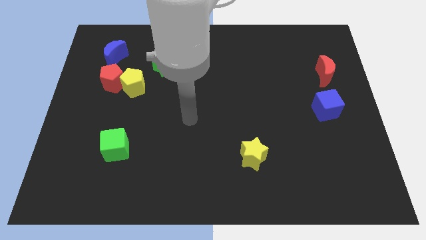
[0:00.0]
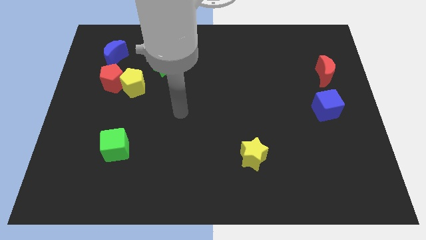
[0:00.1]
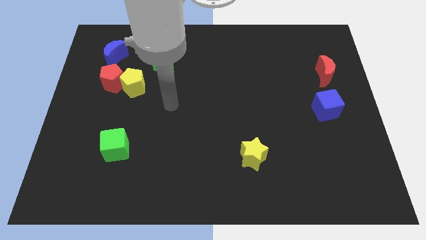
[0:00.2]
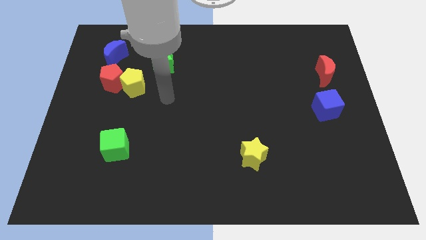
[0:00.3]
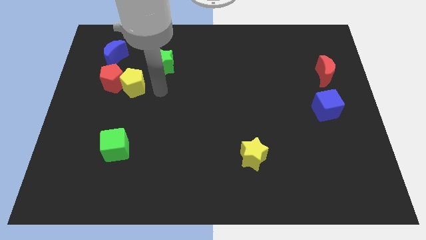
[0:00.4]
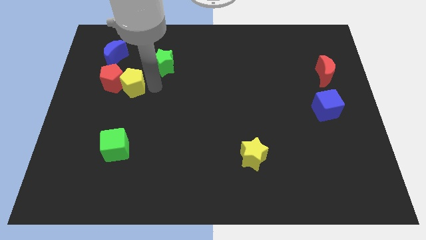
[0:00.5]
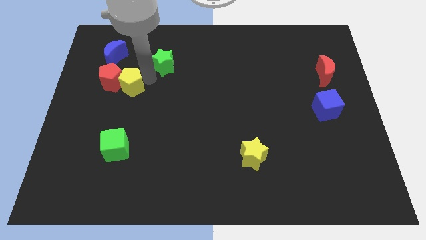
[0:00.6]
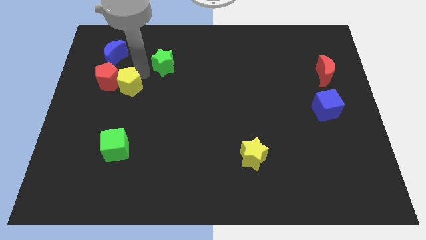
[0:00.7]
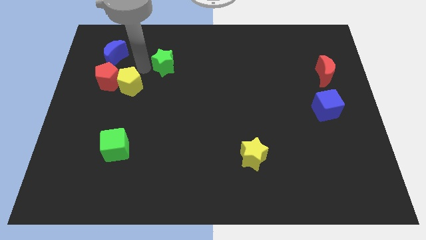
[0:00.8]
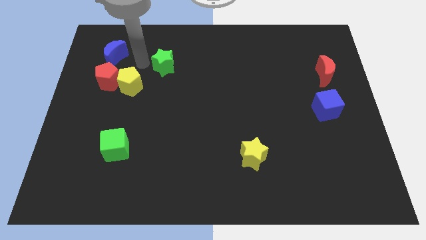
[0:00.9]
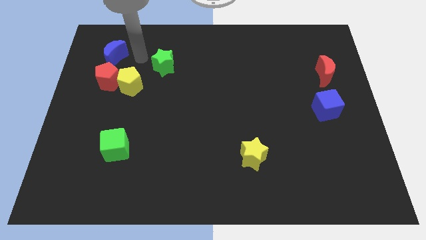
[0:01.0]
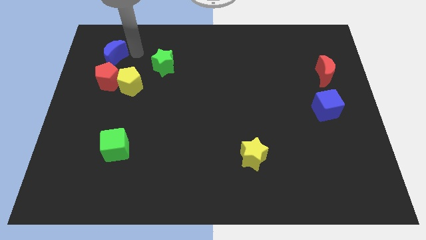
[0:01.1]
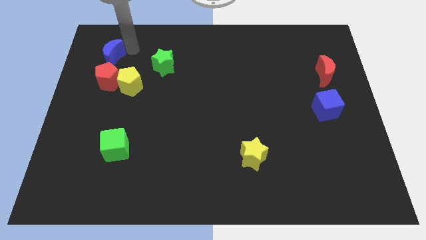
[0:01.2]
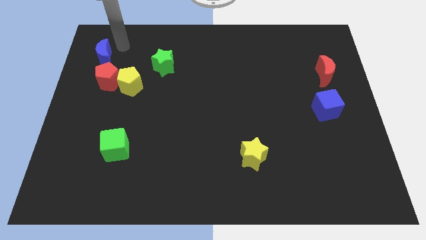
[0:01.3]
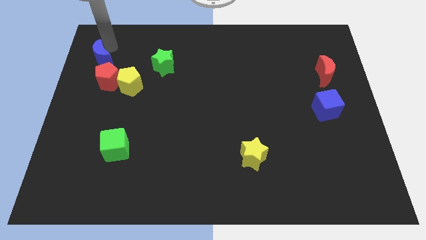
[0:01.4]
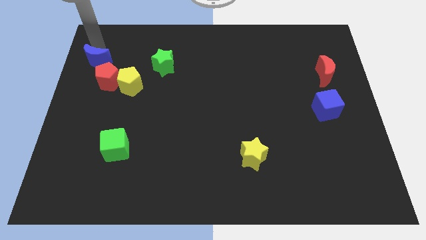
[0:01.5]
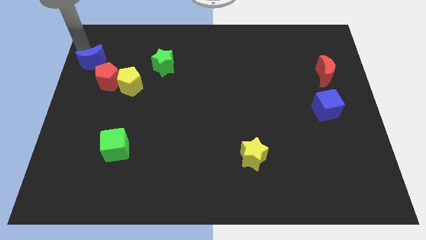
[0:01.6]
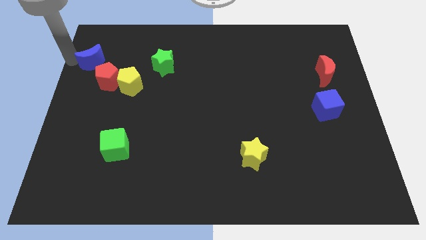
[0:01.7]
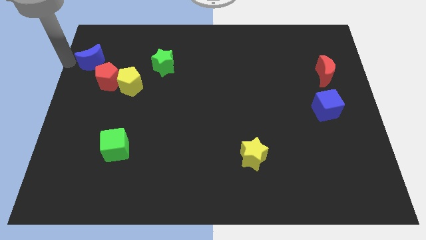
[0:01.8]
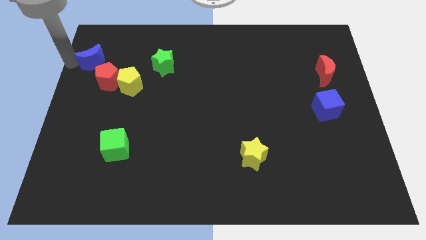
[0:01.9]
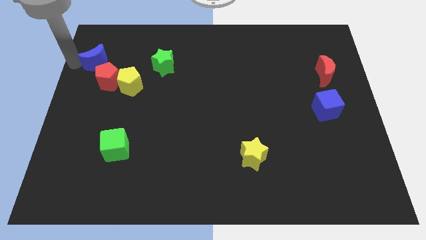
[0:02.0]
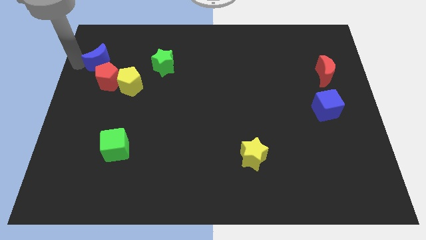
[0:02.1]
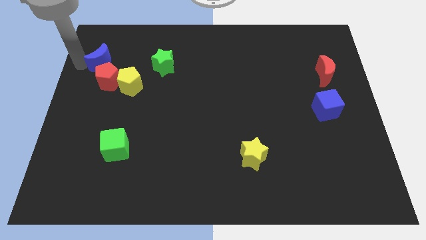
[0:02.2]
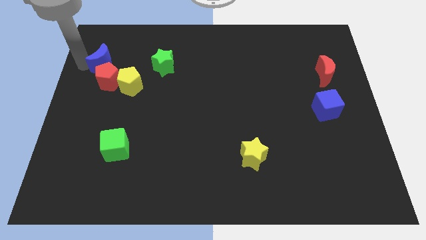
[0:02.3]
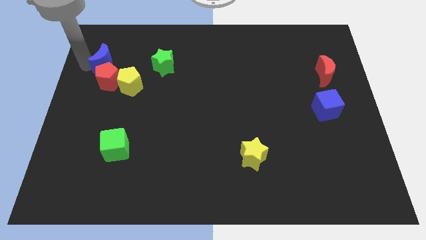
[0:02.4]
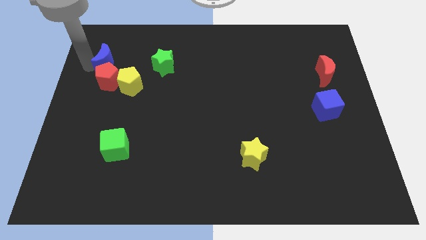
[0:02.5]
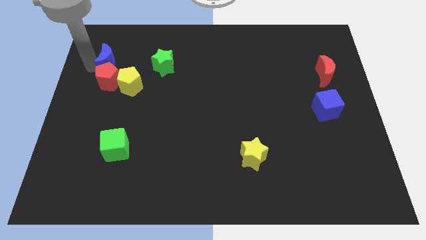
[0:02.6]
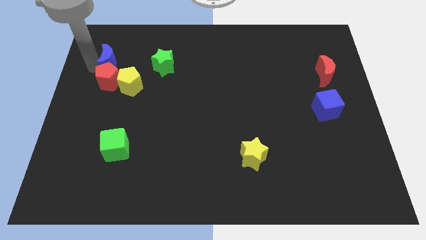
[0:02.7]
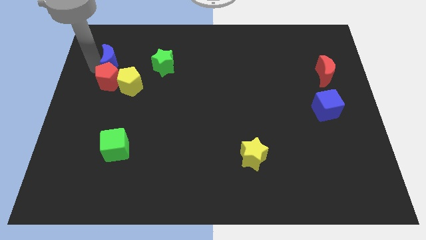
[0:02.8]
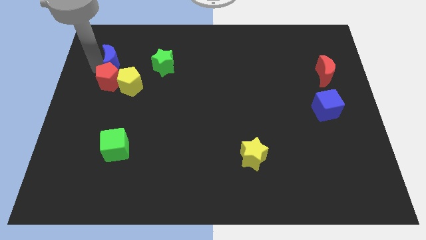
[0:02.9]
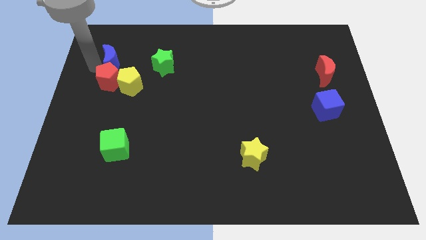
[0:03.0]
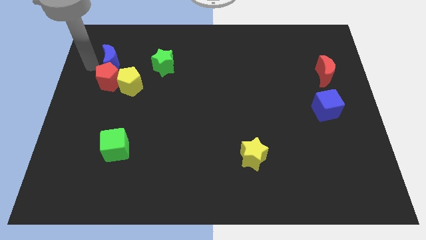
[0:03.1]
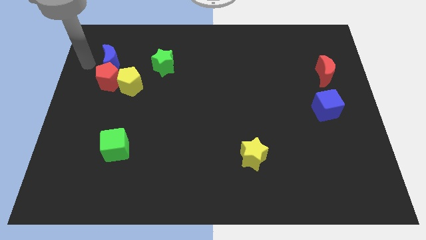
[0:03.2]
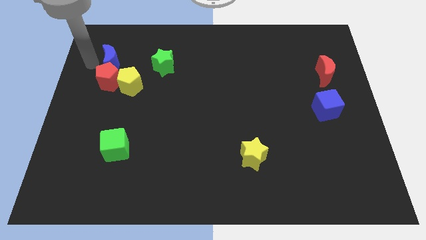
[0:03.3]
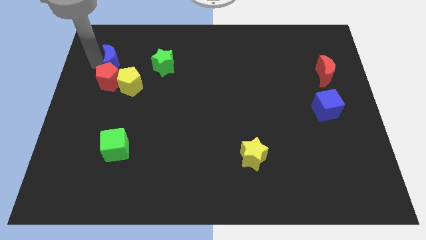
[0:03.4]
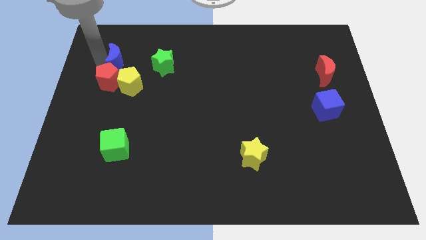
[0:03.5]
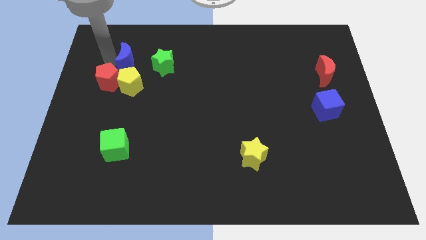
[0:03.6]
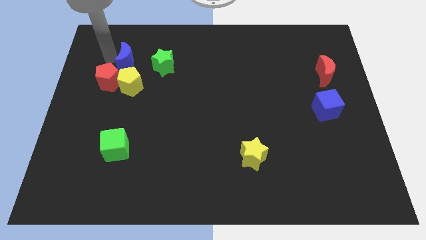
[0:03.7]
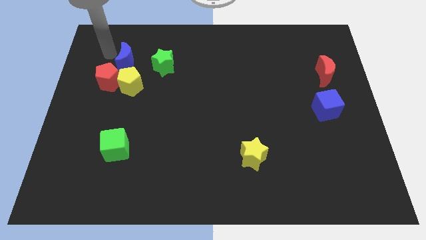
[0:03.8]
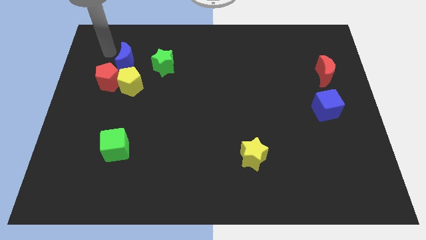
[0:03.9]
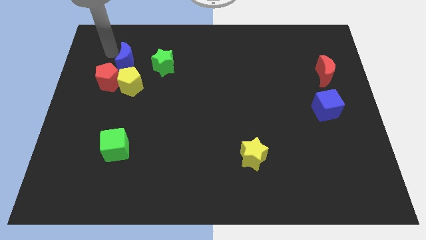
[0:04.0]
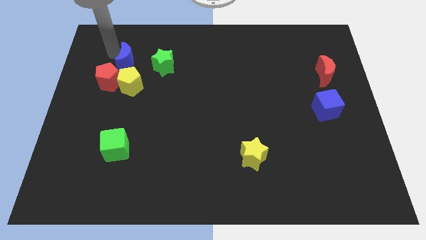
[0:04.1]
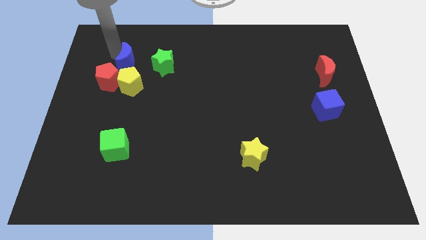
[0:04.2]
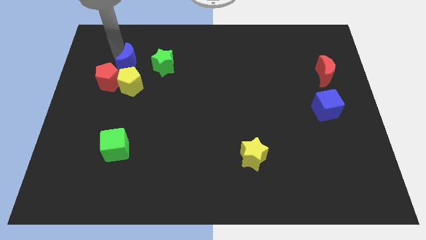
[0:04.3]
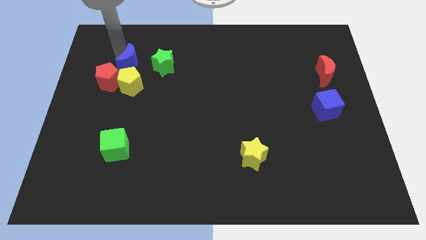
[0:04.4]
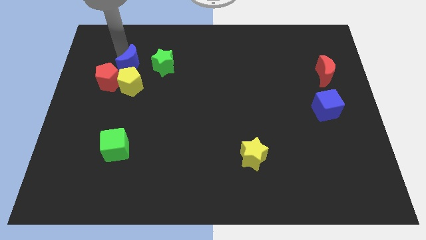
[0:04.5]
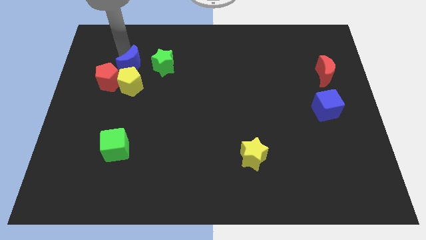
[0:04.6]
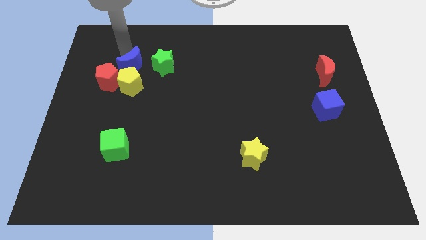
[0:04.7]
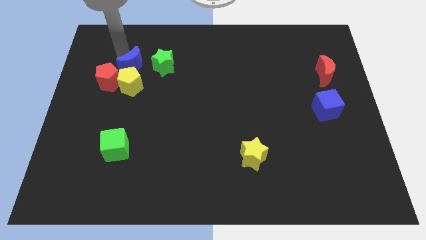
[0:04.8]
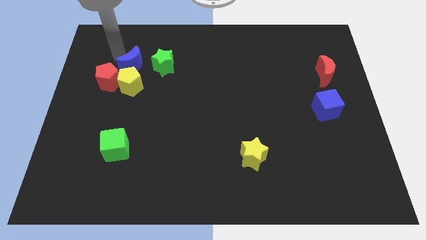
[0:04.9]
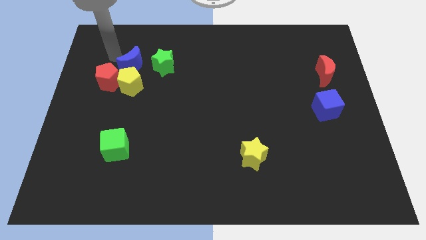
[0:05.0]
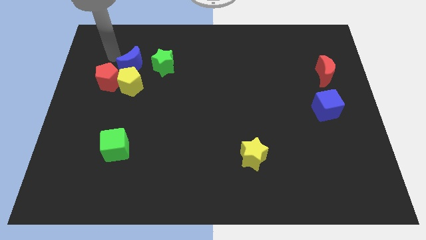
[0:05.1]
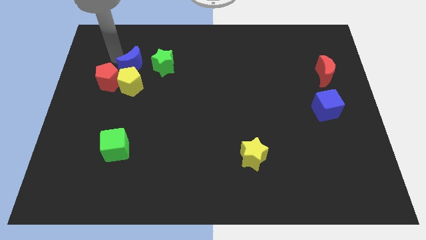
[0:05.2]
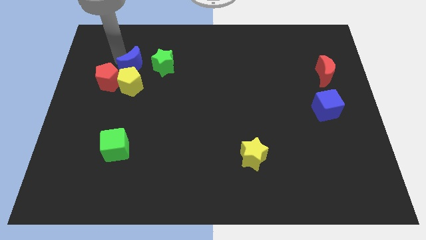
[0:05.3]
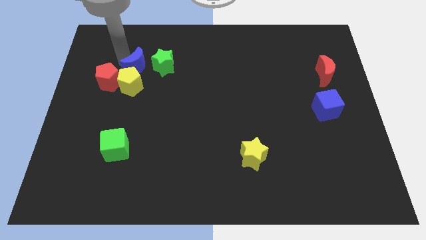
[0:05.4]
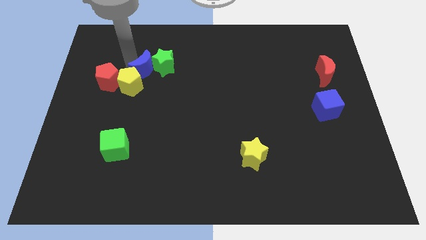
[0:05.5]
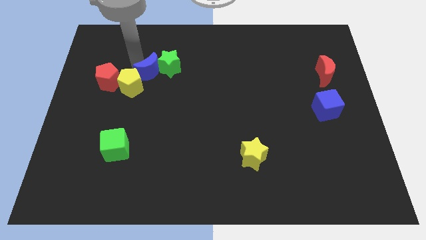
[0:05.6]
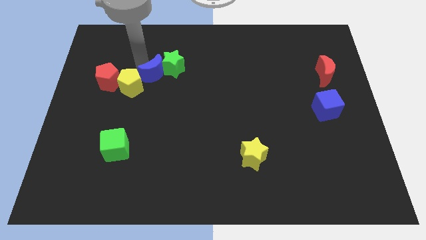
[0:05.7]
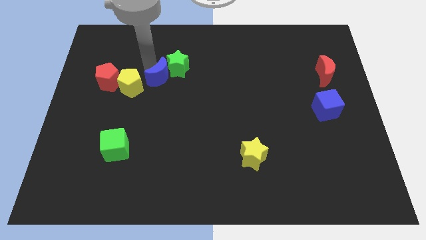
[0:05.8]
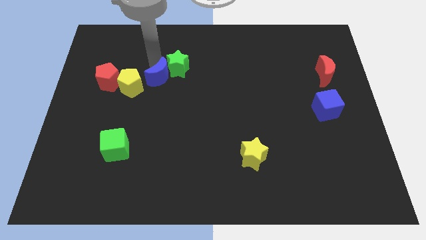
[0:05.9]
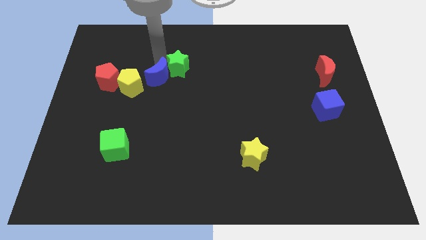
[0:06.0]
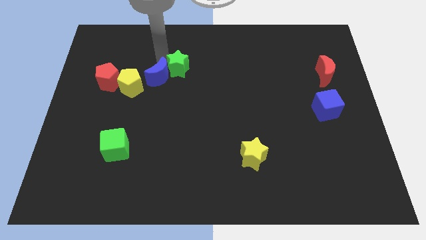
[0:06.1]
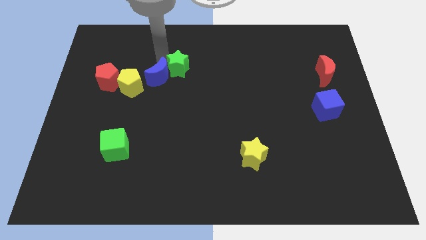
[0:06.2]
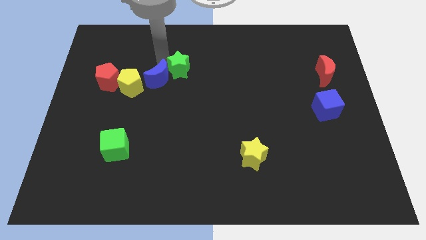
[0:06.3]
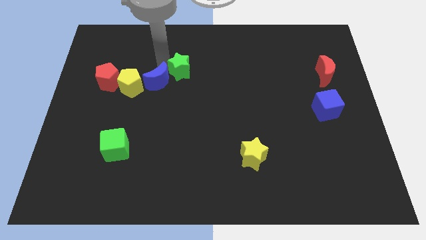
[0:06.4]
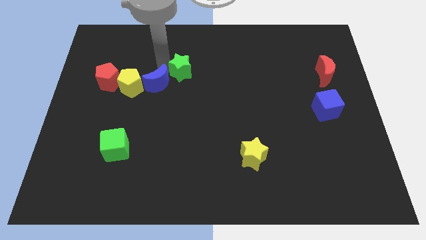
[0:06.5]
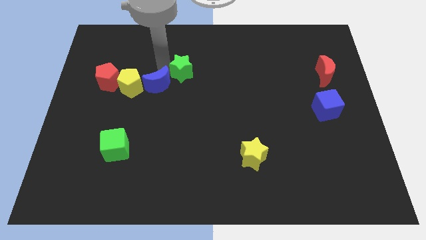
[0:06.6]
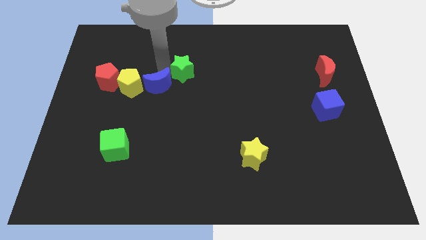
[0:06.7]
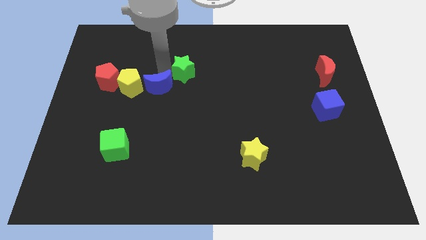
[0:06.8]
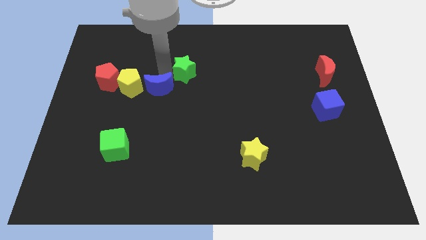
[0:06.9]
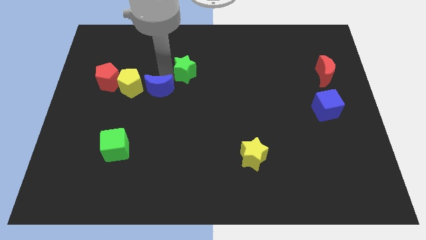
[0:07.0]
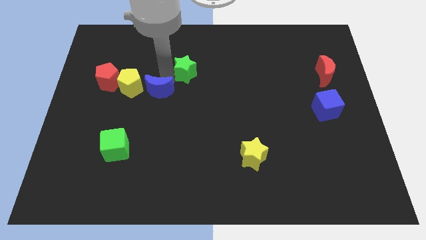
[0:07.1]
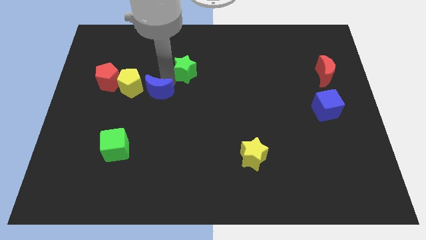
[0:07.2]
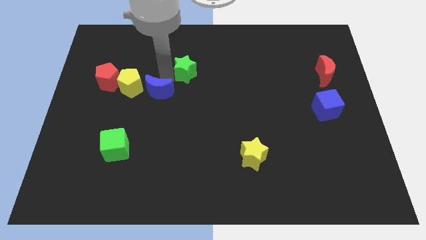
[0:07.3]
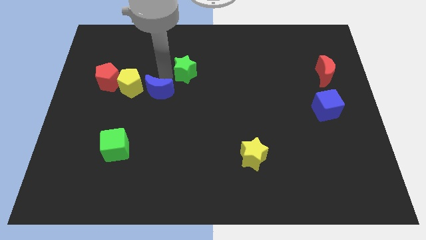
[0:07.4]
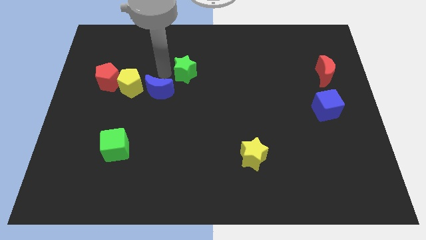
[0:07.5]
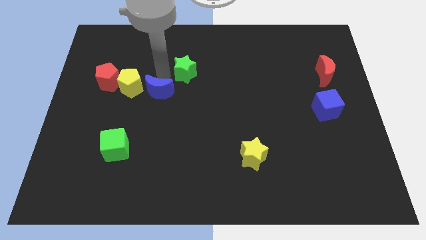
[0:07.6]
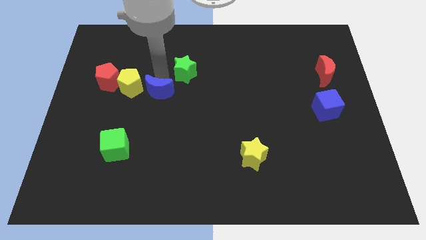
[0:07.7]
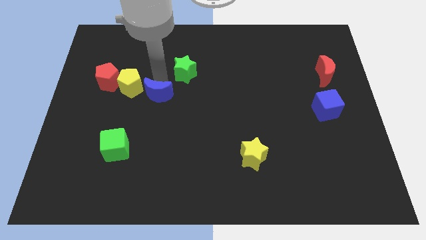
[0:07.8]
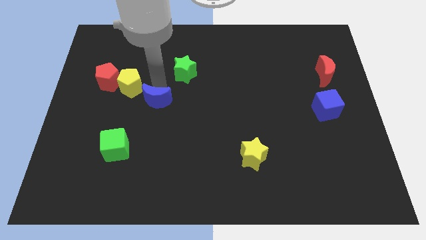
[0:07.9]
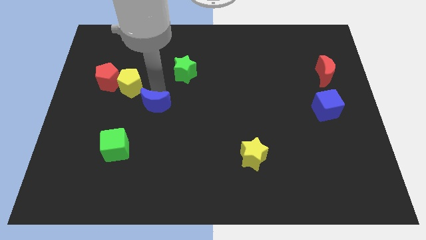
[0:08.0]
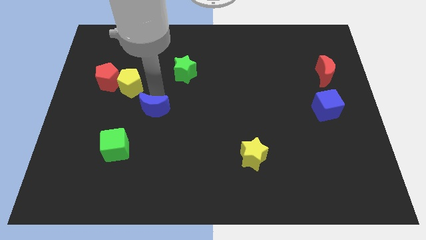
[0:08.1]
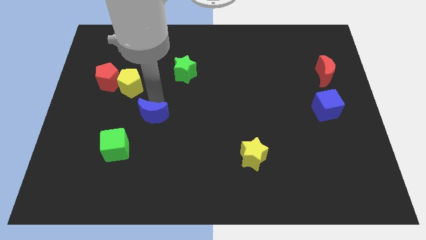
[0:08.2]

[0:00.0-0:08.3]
slide the blue moon diagonally up and to the right of the green cube
